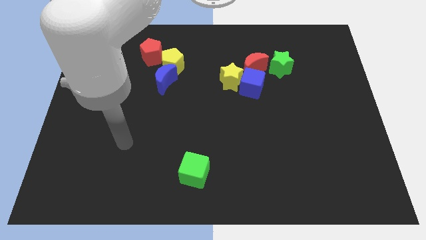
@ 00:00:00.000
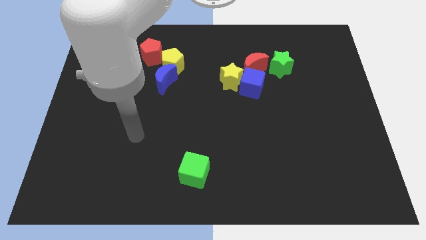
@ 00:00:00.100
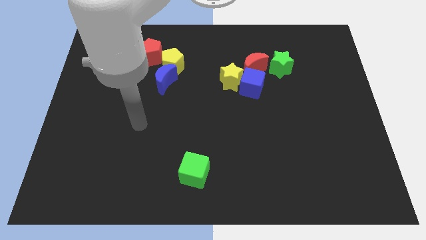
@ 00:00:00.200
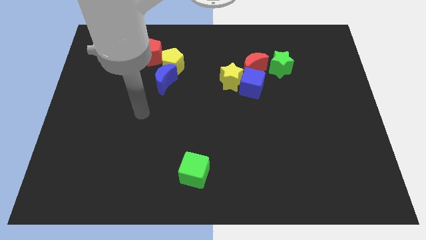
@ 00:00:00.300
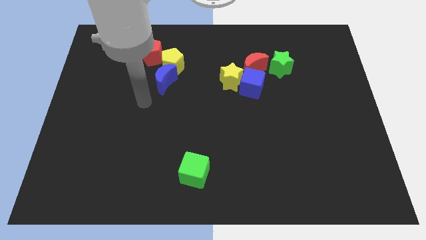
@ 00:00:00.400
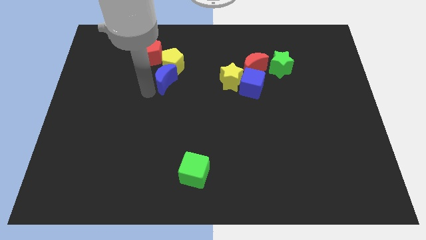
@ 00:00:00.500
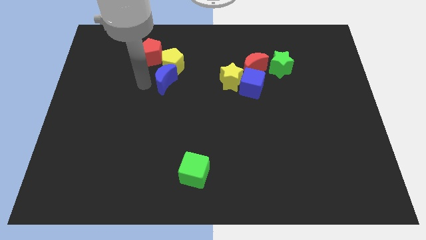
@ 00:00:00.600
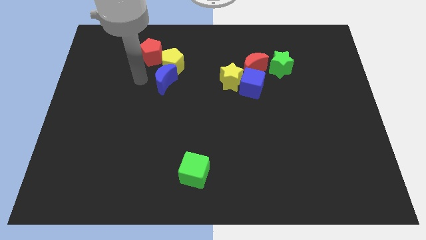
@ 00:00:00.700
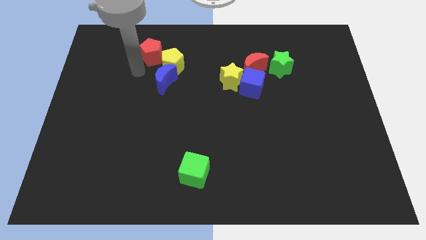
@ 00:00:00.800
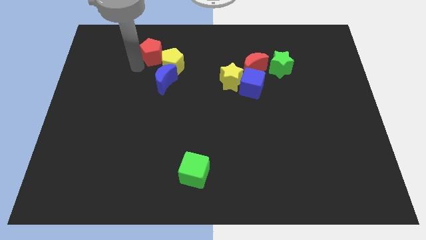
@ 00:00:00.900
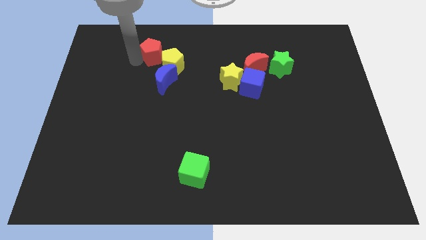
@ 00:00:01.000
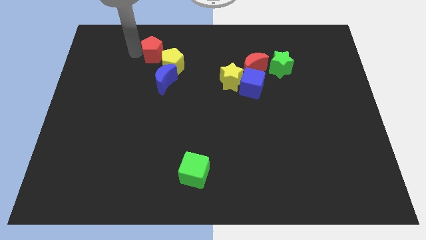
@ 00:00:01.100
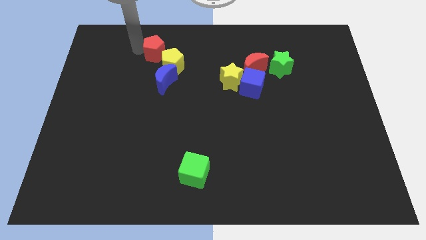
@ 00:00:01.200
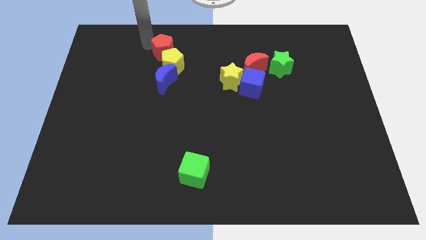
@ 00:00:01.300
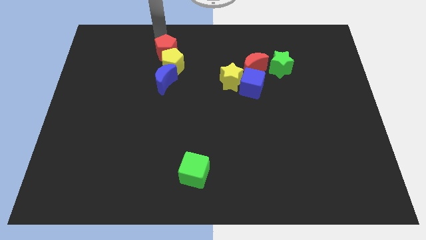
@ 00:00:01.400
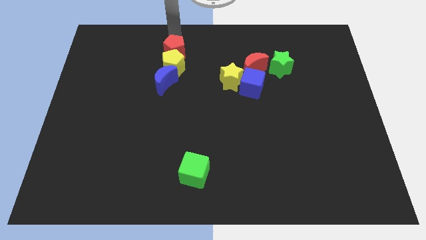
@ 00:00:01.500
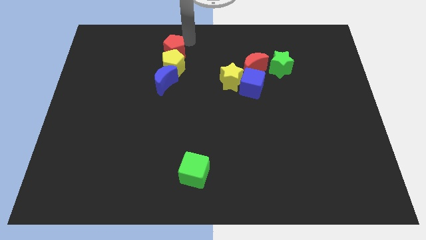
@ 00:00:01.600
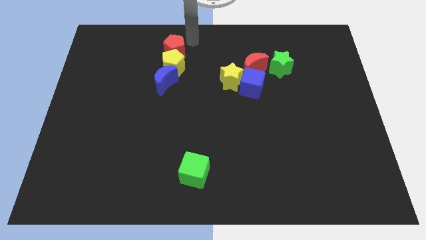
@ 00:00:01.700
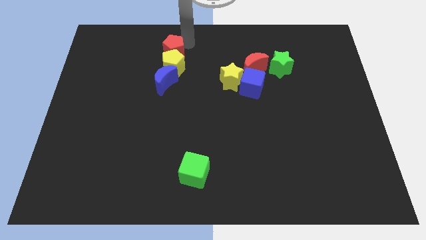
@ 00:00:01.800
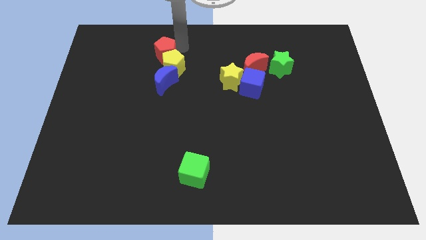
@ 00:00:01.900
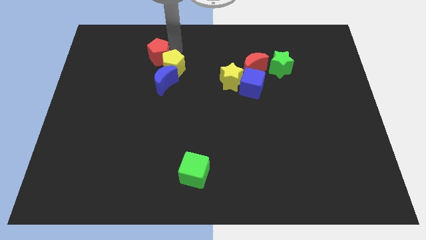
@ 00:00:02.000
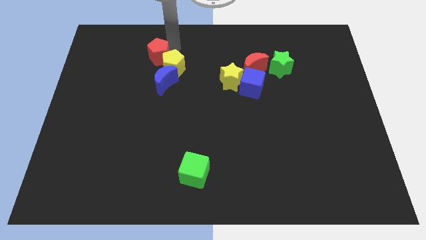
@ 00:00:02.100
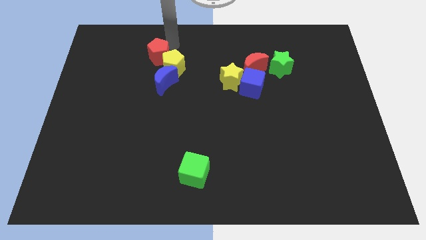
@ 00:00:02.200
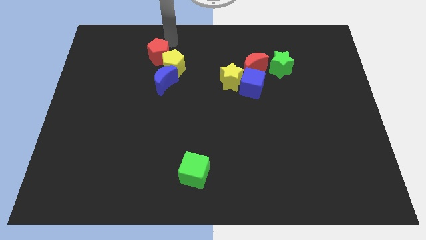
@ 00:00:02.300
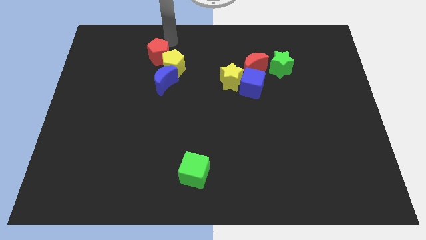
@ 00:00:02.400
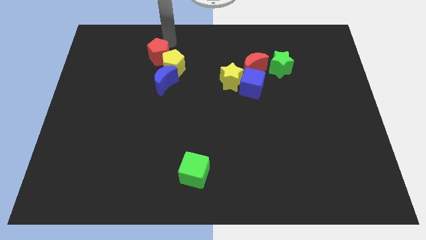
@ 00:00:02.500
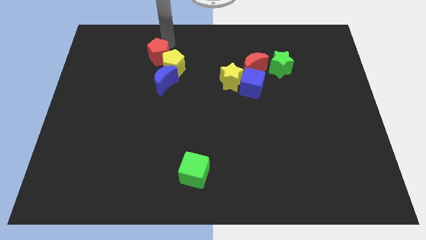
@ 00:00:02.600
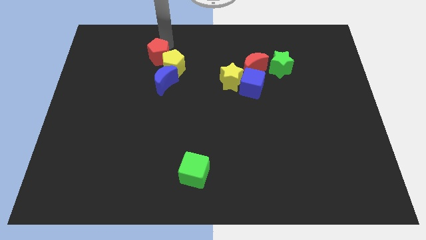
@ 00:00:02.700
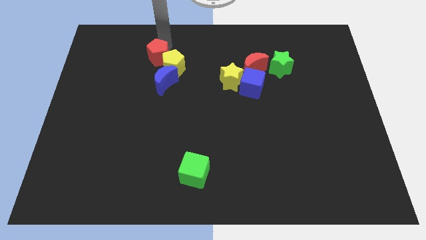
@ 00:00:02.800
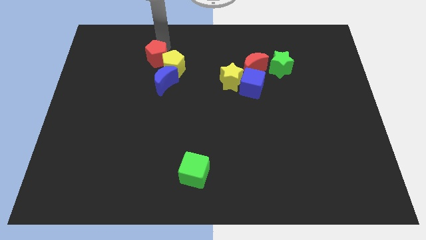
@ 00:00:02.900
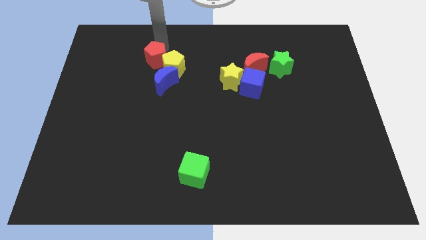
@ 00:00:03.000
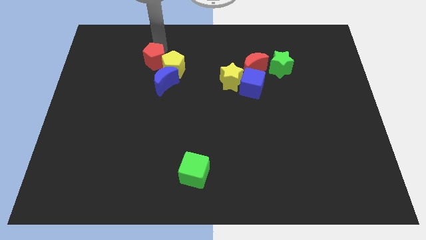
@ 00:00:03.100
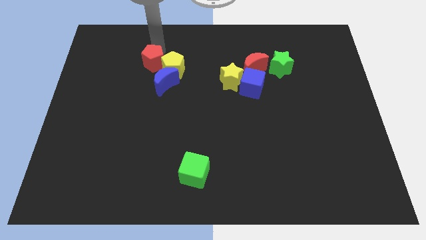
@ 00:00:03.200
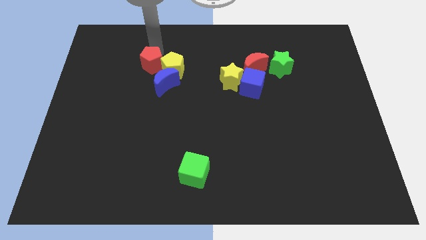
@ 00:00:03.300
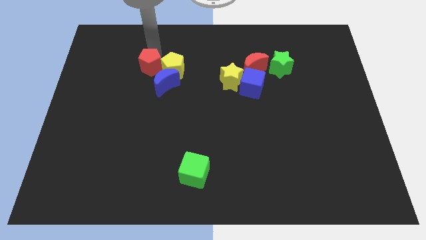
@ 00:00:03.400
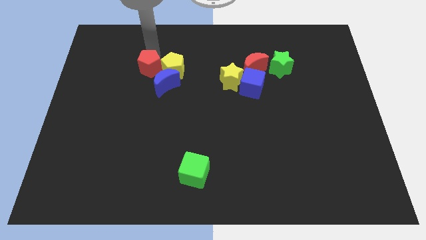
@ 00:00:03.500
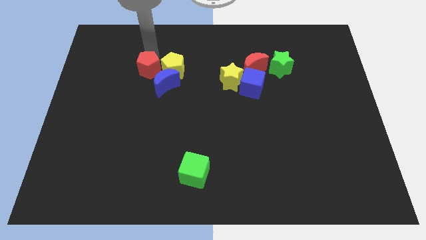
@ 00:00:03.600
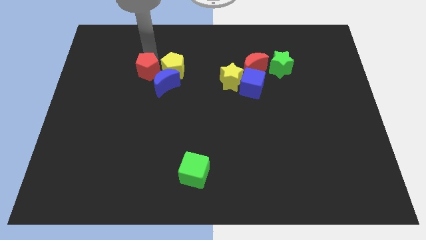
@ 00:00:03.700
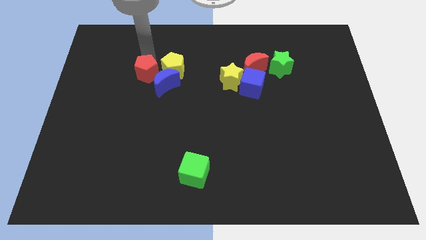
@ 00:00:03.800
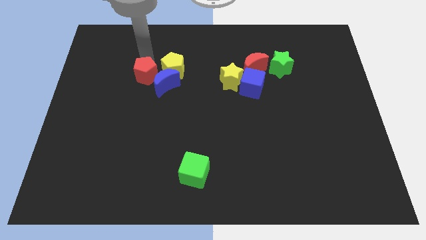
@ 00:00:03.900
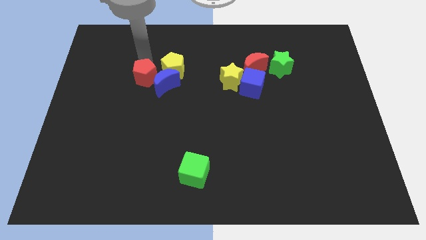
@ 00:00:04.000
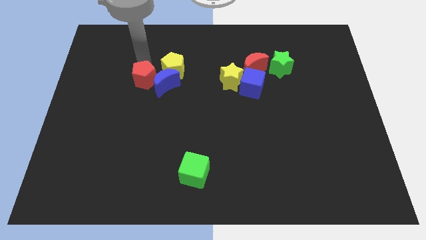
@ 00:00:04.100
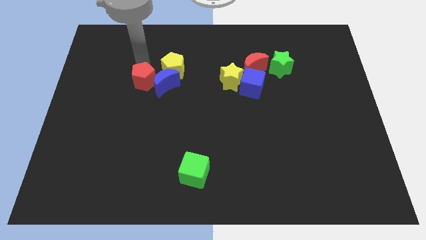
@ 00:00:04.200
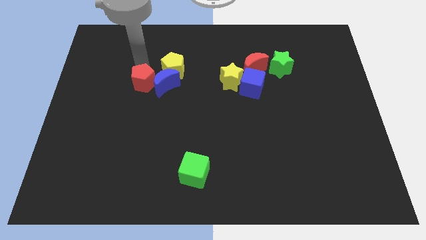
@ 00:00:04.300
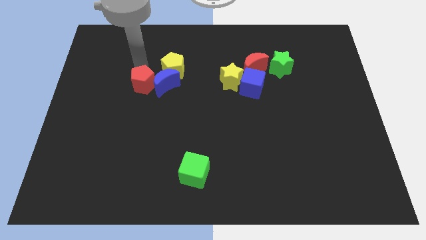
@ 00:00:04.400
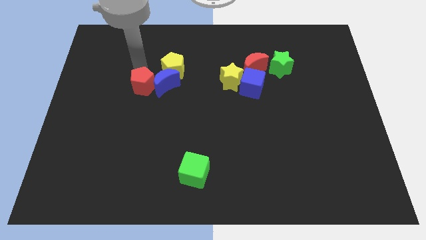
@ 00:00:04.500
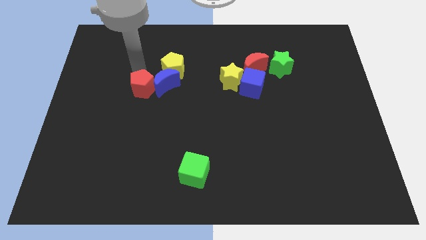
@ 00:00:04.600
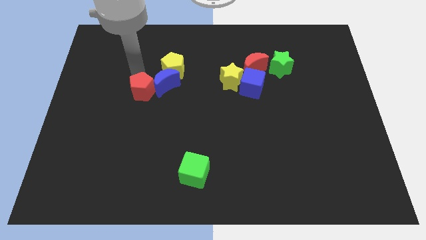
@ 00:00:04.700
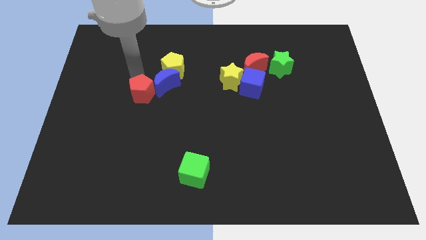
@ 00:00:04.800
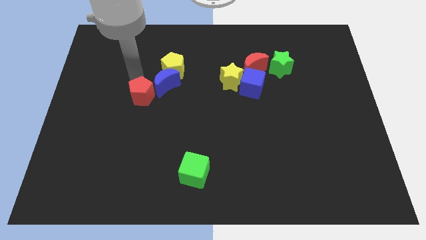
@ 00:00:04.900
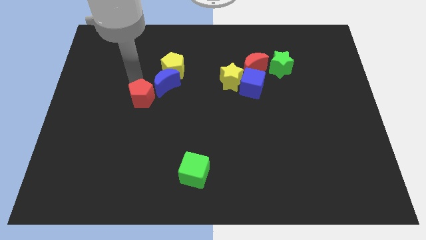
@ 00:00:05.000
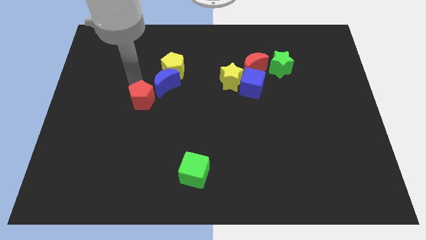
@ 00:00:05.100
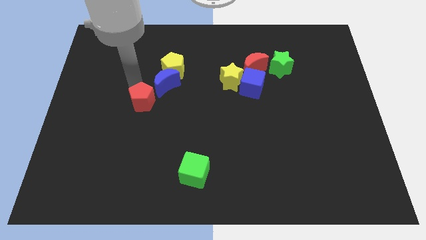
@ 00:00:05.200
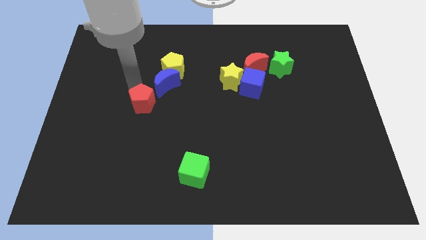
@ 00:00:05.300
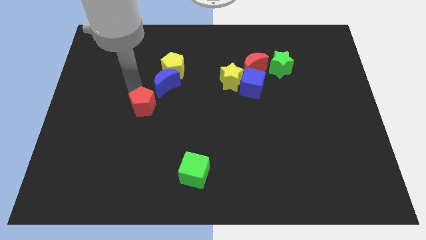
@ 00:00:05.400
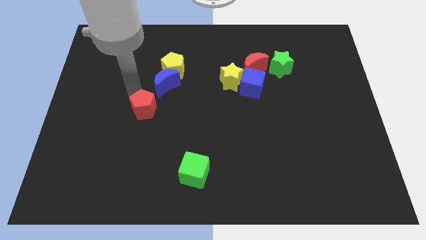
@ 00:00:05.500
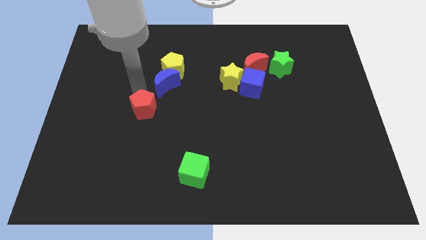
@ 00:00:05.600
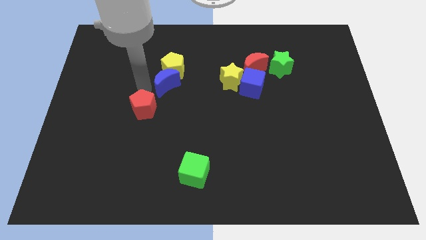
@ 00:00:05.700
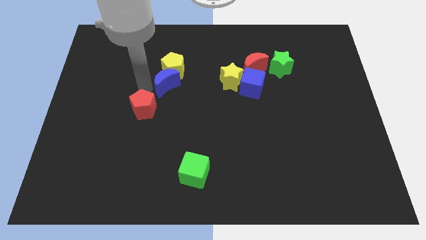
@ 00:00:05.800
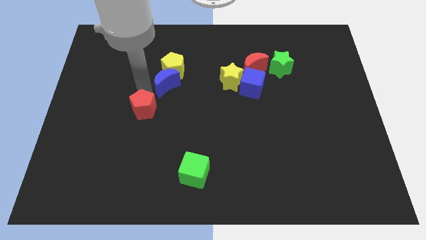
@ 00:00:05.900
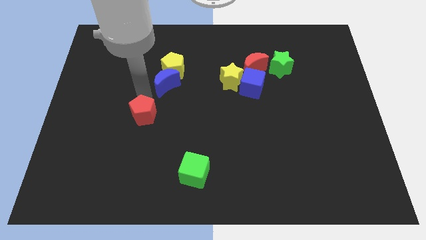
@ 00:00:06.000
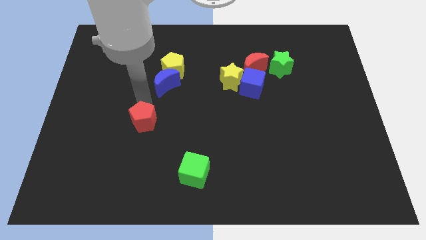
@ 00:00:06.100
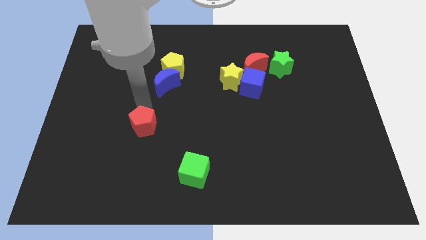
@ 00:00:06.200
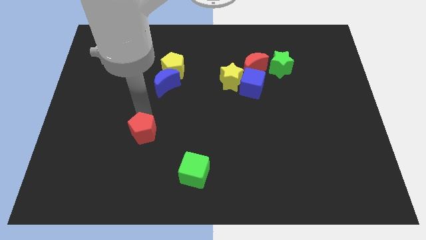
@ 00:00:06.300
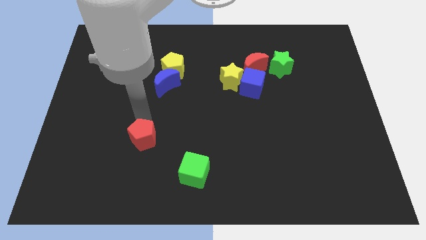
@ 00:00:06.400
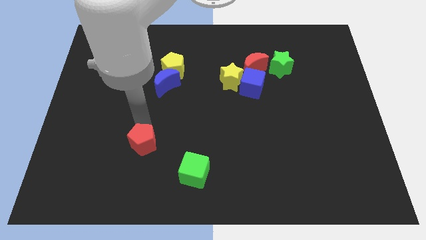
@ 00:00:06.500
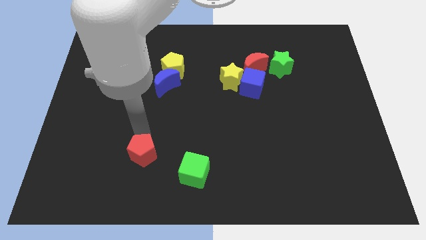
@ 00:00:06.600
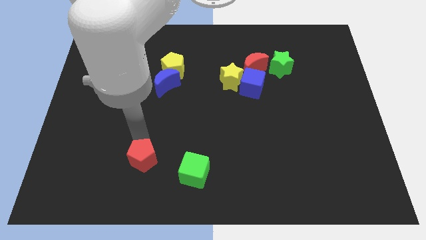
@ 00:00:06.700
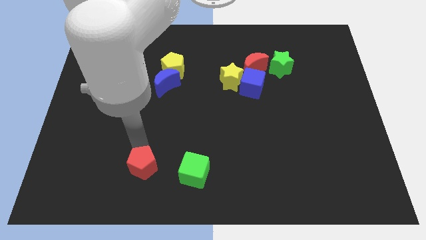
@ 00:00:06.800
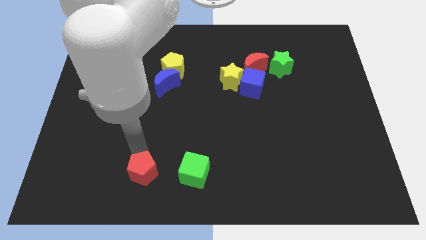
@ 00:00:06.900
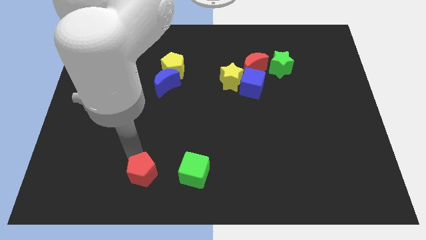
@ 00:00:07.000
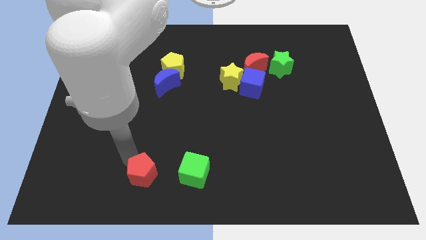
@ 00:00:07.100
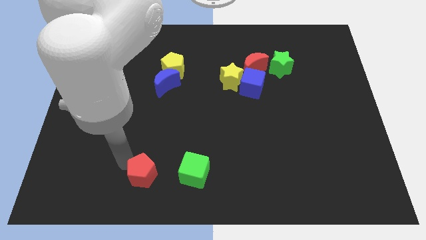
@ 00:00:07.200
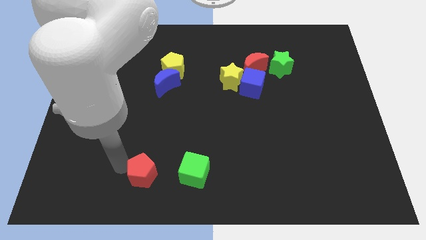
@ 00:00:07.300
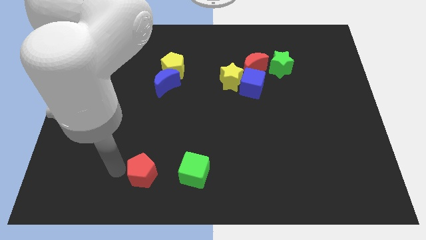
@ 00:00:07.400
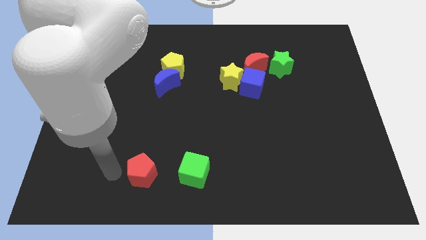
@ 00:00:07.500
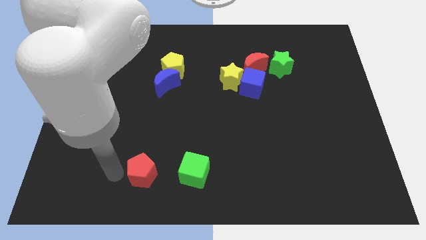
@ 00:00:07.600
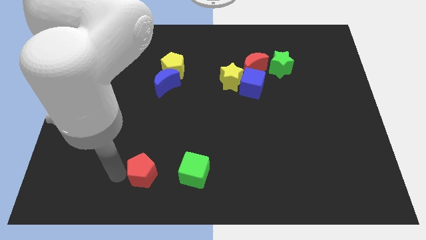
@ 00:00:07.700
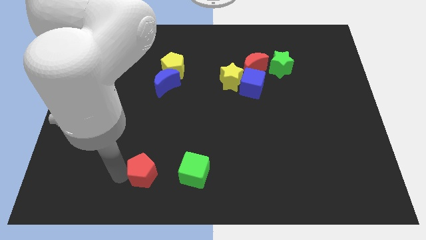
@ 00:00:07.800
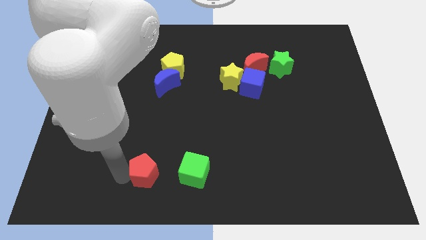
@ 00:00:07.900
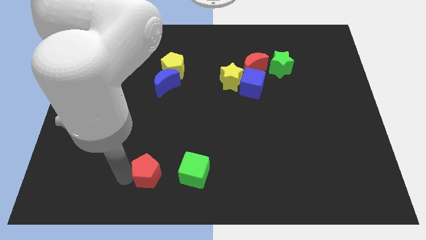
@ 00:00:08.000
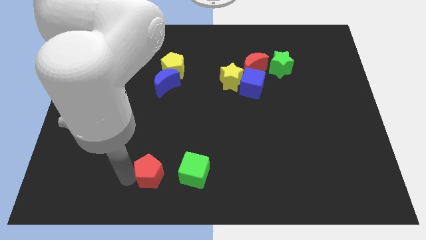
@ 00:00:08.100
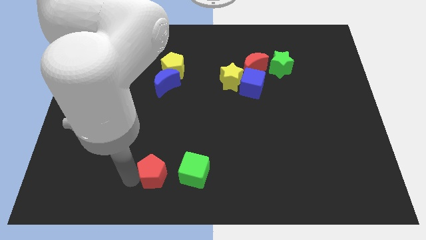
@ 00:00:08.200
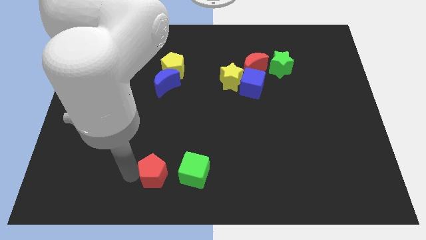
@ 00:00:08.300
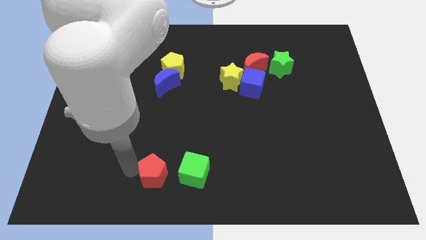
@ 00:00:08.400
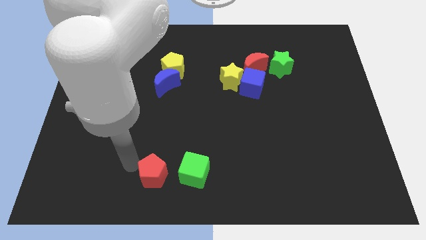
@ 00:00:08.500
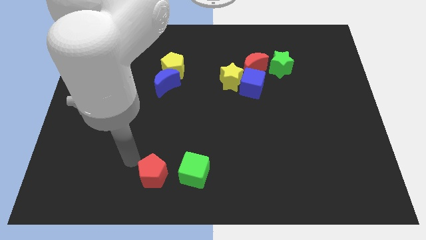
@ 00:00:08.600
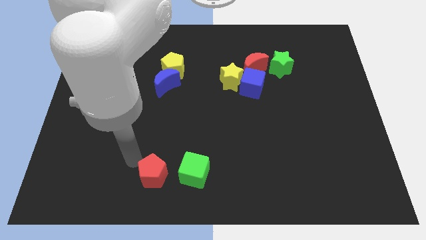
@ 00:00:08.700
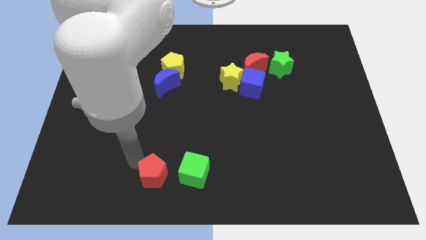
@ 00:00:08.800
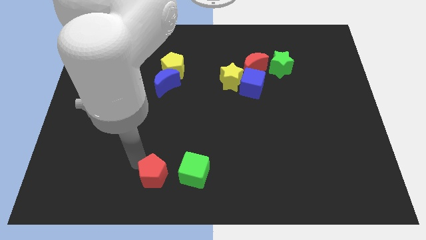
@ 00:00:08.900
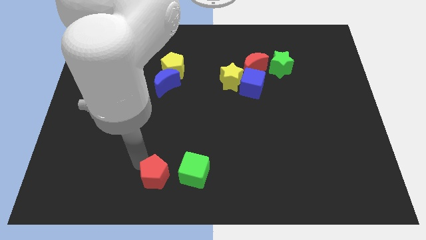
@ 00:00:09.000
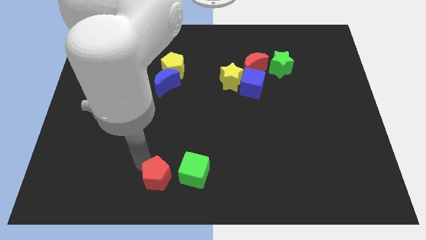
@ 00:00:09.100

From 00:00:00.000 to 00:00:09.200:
move the red pentagon to the bottom
